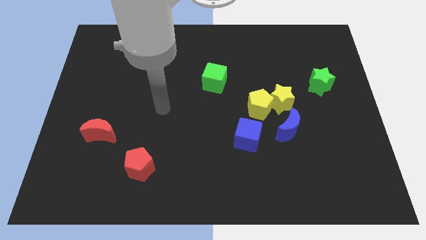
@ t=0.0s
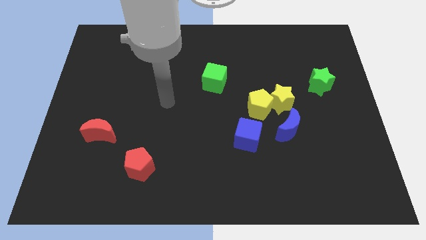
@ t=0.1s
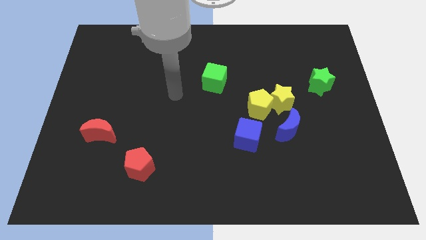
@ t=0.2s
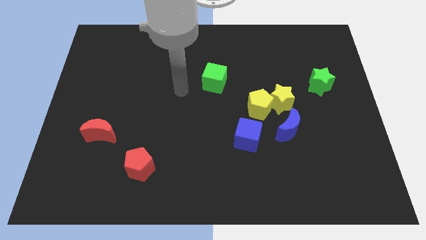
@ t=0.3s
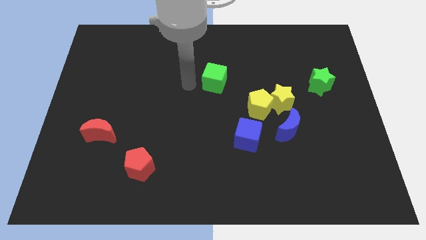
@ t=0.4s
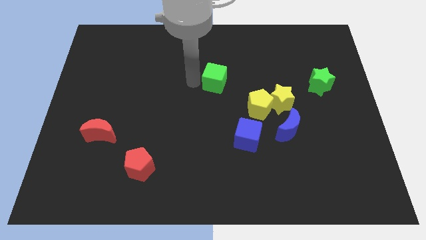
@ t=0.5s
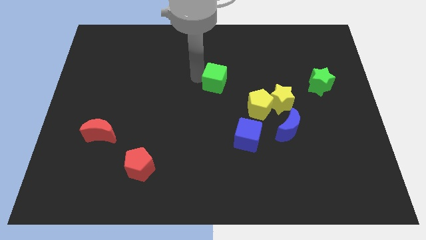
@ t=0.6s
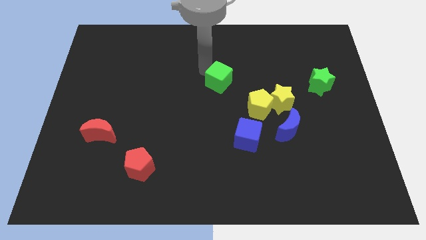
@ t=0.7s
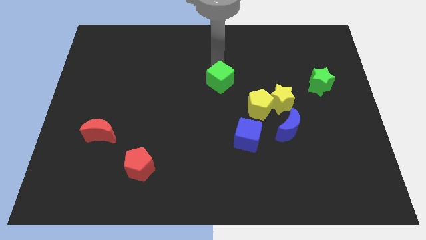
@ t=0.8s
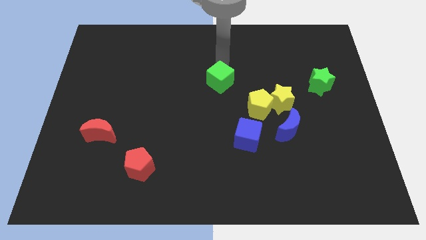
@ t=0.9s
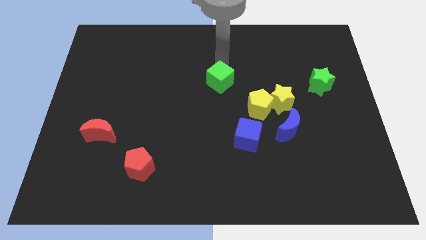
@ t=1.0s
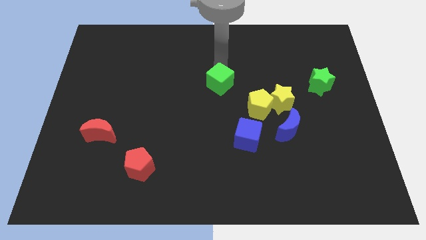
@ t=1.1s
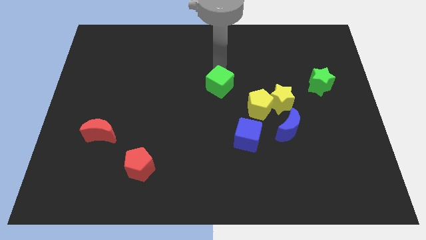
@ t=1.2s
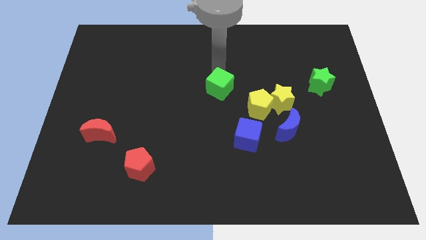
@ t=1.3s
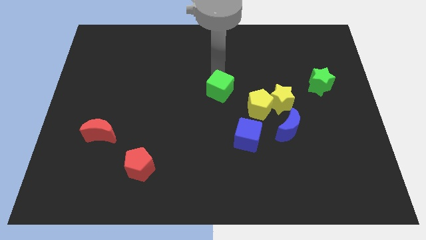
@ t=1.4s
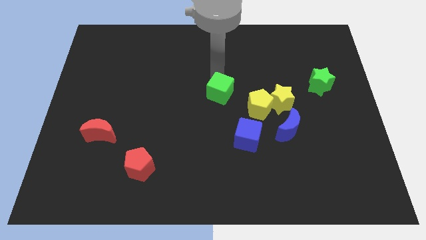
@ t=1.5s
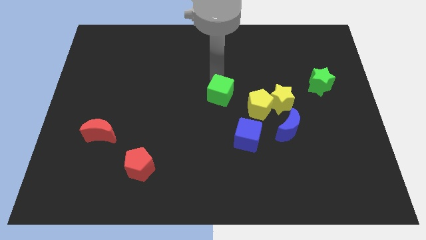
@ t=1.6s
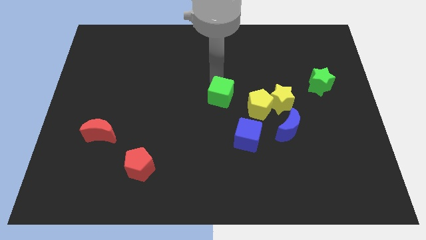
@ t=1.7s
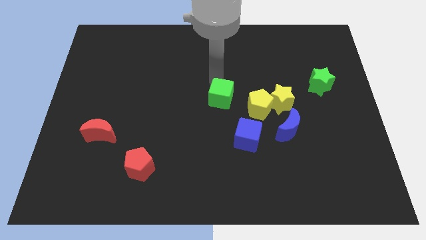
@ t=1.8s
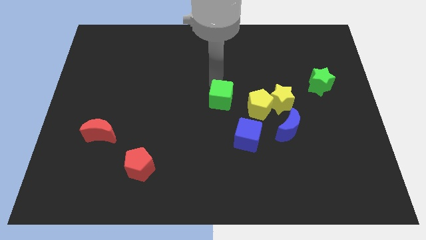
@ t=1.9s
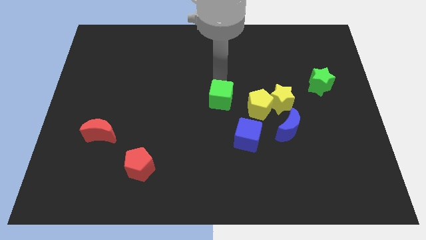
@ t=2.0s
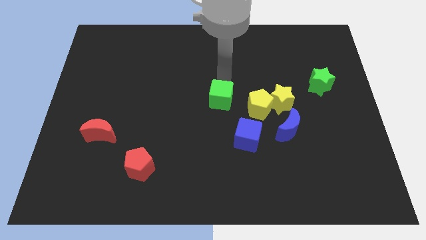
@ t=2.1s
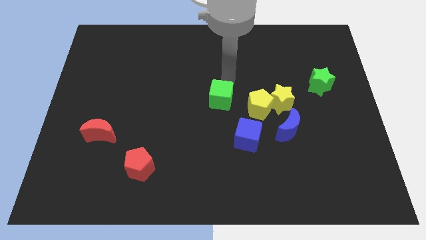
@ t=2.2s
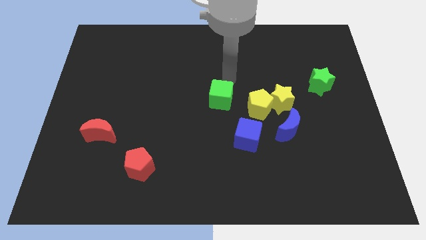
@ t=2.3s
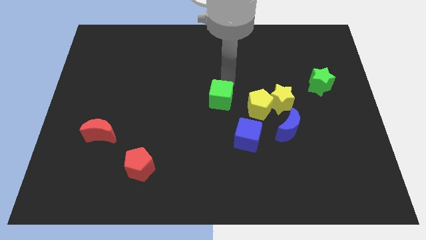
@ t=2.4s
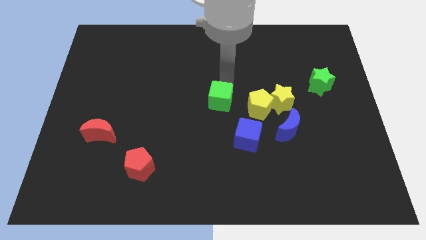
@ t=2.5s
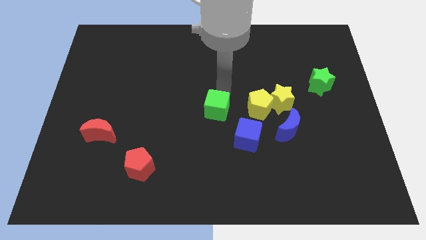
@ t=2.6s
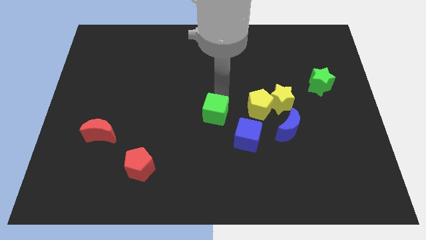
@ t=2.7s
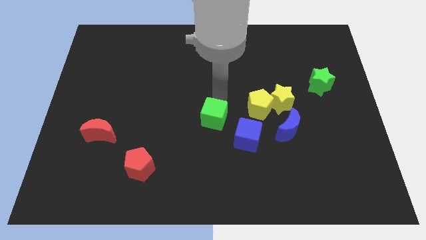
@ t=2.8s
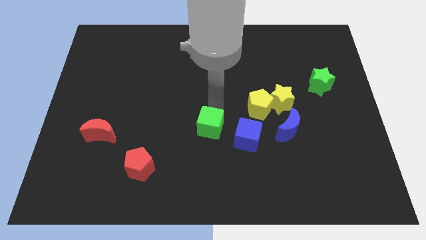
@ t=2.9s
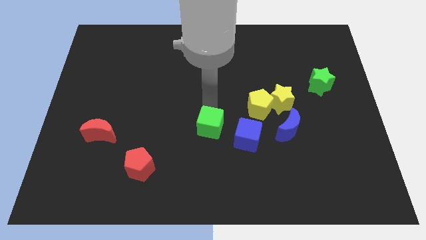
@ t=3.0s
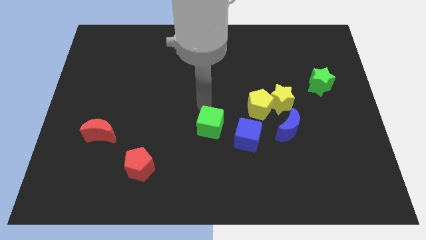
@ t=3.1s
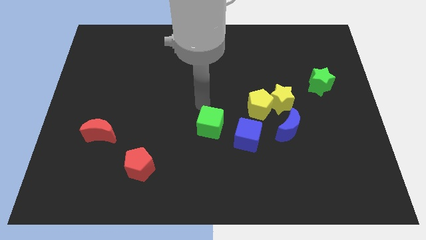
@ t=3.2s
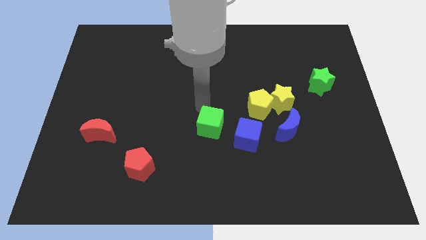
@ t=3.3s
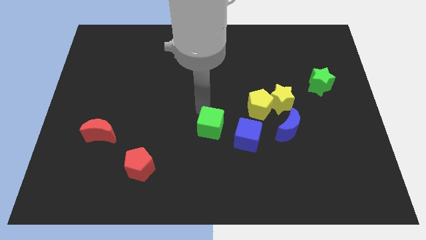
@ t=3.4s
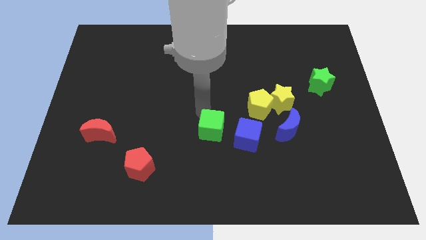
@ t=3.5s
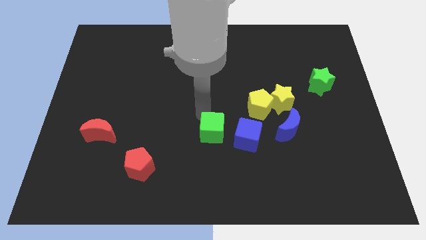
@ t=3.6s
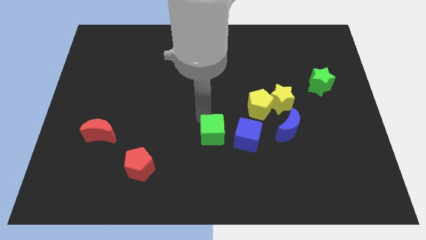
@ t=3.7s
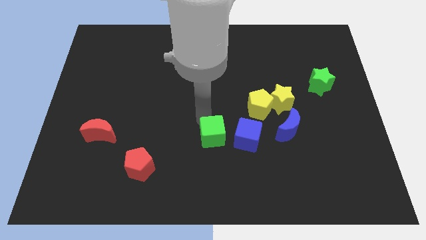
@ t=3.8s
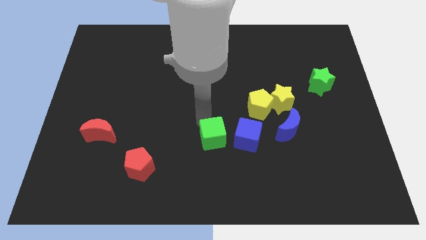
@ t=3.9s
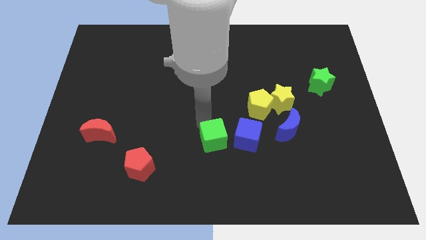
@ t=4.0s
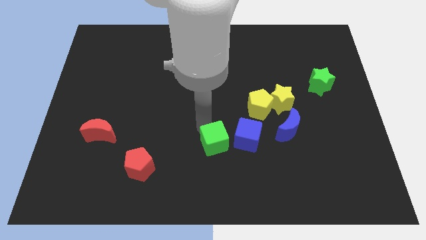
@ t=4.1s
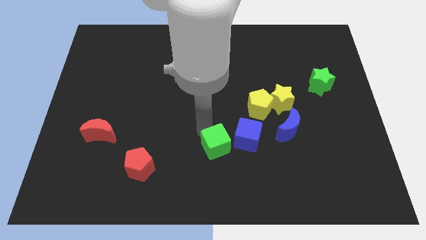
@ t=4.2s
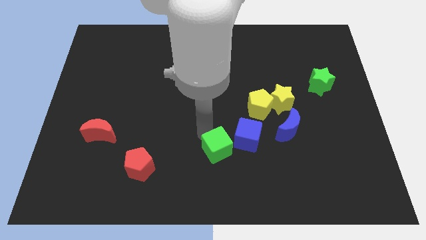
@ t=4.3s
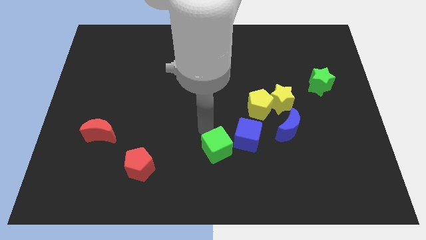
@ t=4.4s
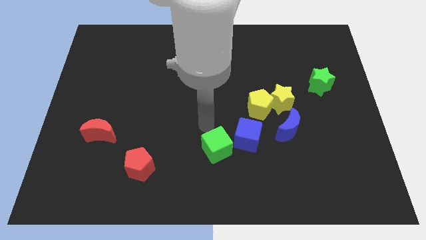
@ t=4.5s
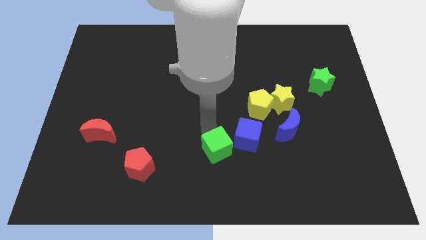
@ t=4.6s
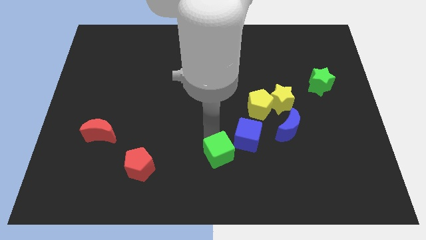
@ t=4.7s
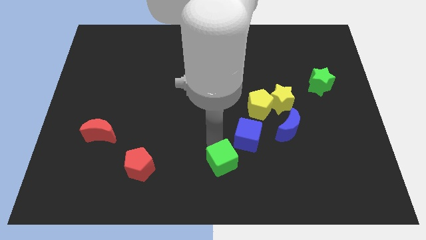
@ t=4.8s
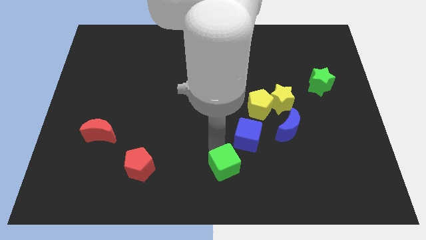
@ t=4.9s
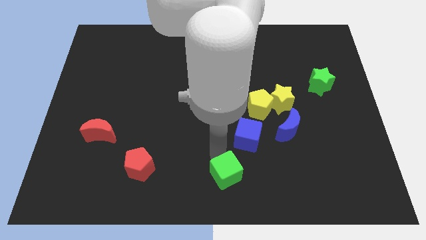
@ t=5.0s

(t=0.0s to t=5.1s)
move the green cube to the bottom side of the blue cube

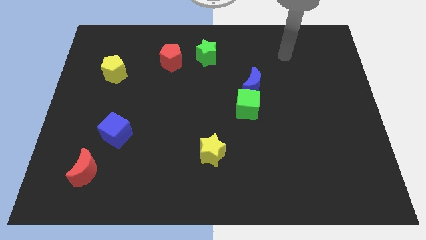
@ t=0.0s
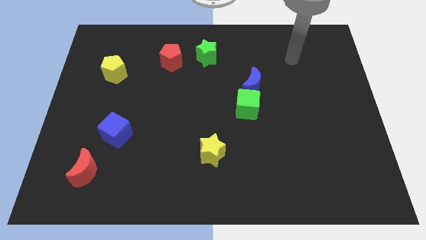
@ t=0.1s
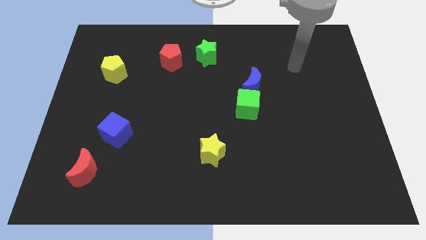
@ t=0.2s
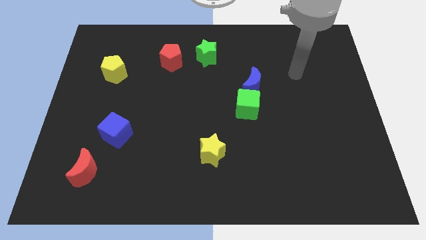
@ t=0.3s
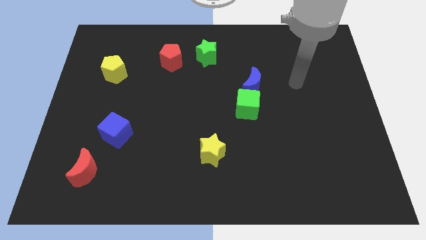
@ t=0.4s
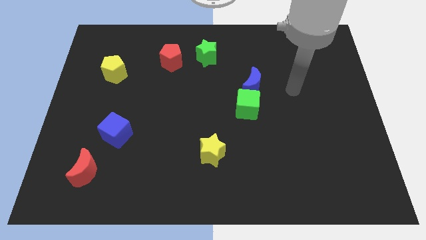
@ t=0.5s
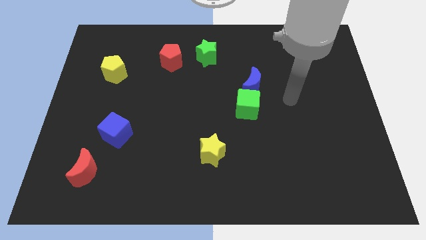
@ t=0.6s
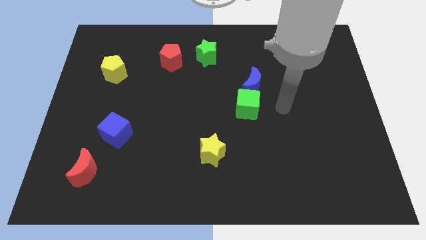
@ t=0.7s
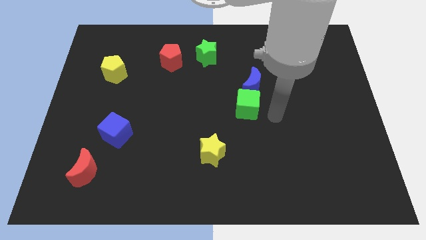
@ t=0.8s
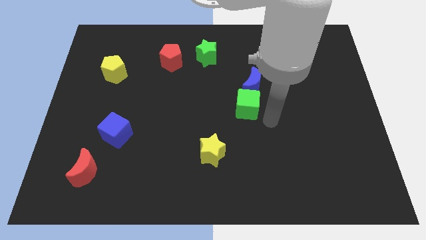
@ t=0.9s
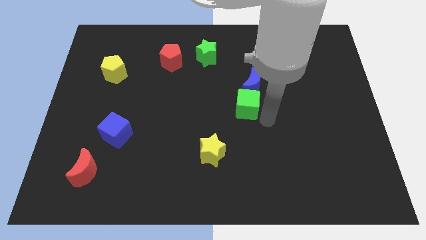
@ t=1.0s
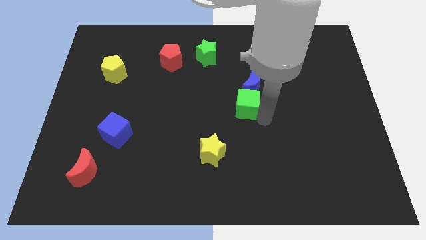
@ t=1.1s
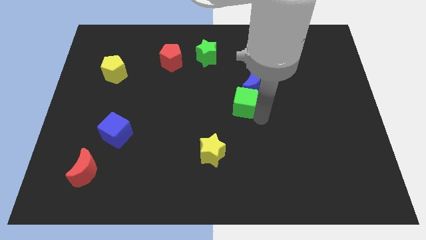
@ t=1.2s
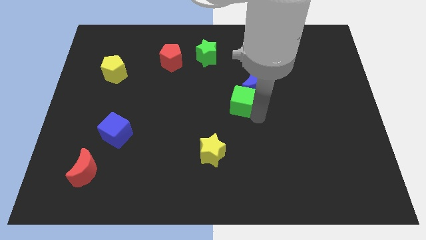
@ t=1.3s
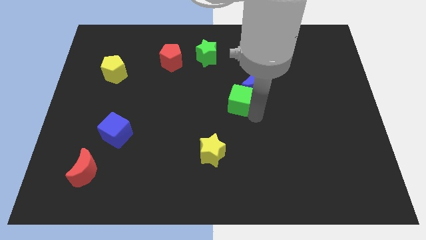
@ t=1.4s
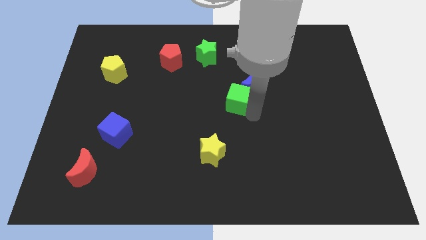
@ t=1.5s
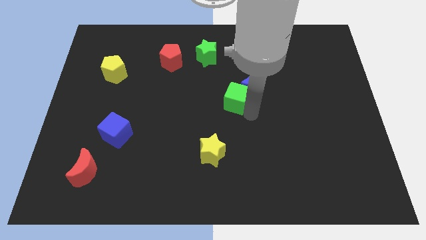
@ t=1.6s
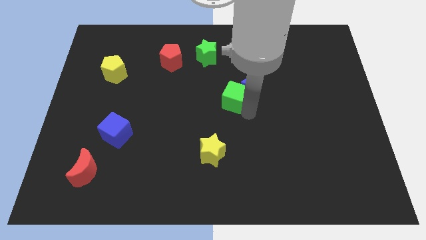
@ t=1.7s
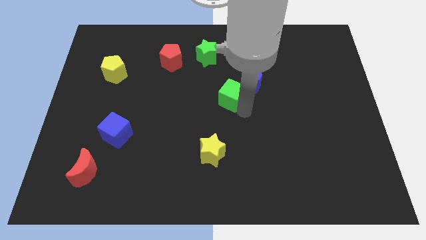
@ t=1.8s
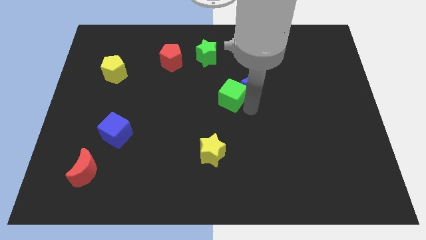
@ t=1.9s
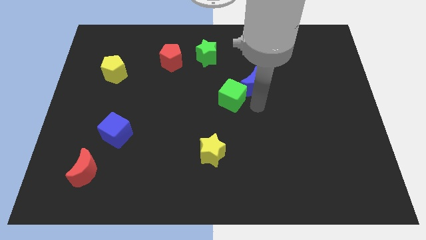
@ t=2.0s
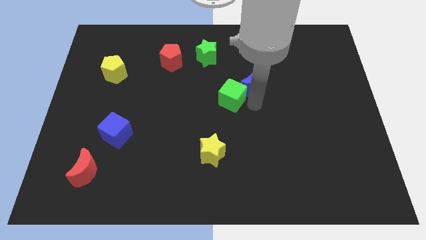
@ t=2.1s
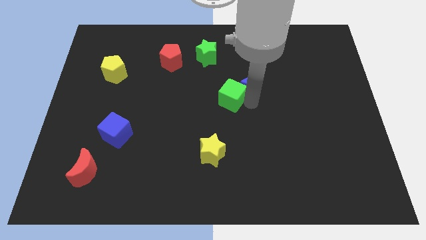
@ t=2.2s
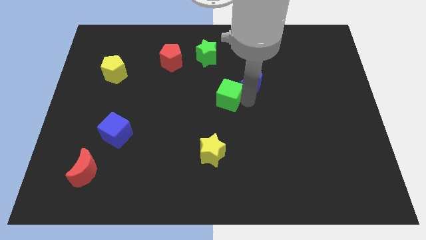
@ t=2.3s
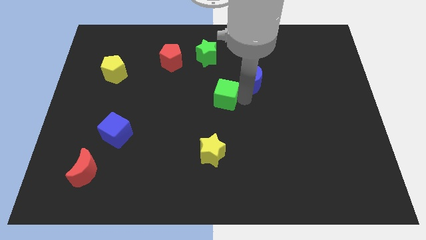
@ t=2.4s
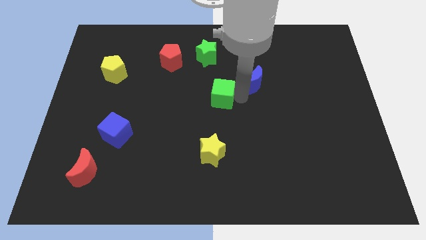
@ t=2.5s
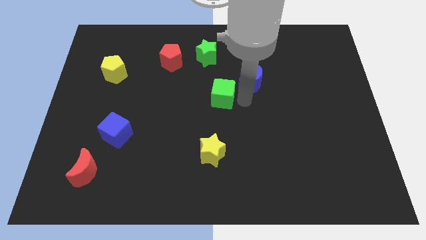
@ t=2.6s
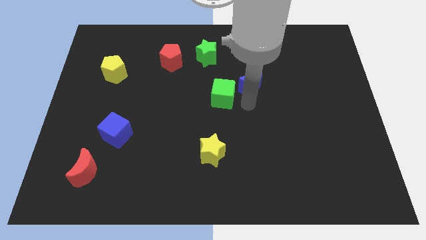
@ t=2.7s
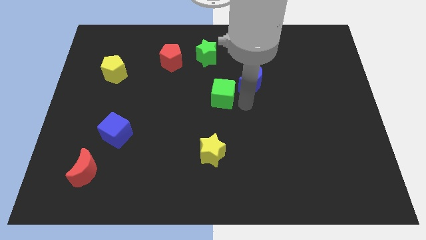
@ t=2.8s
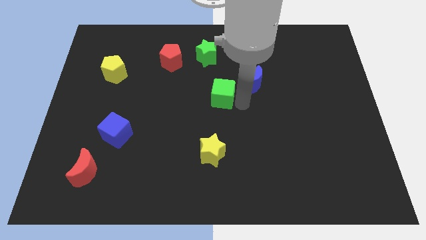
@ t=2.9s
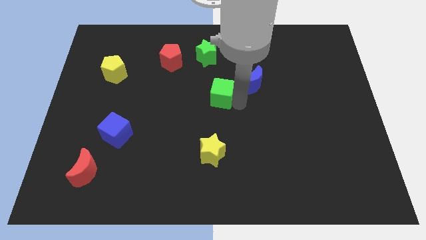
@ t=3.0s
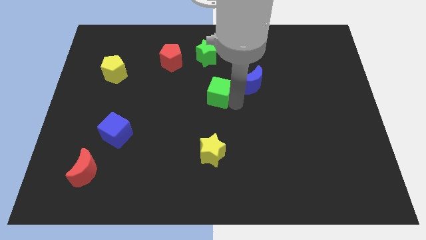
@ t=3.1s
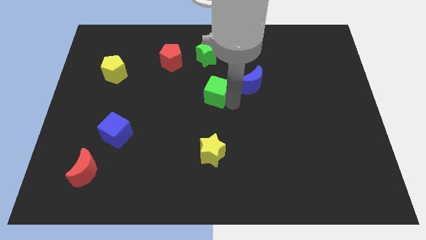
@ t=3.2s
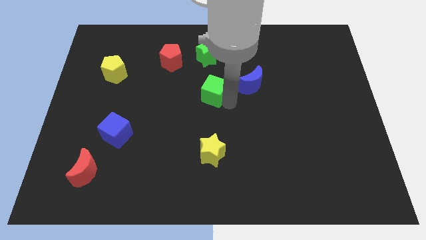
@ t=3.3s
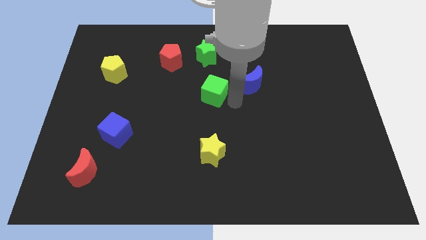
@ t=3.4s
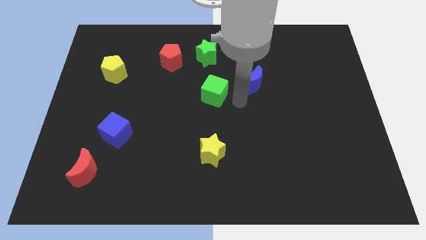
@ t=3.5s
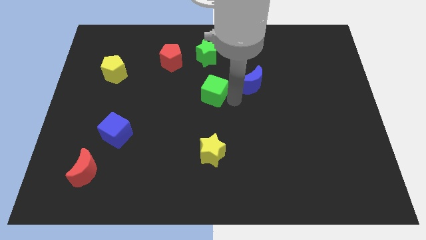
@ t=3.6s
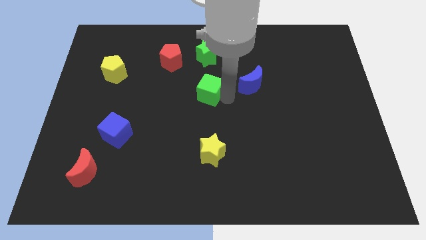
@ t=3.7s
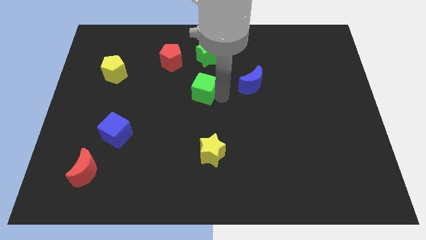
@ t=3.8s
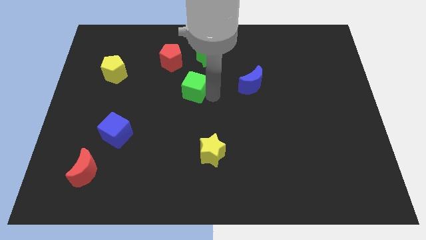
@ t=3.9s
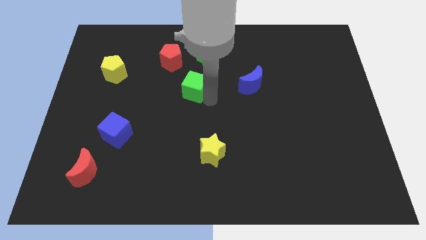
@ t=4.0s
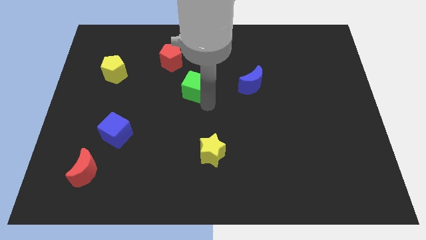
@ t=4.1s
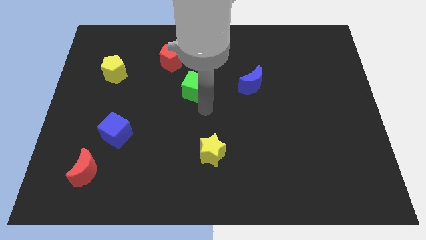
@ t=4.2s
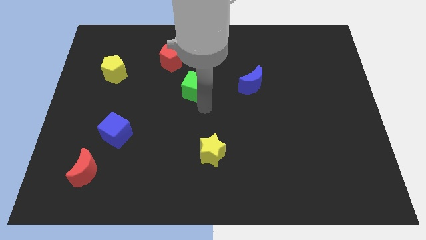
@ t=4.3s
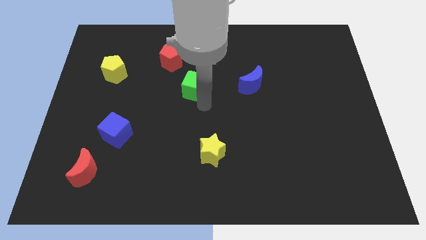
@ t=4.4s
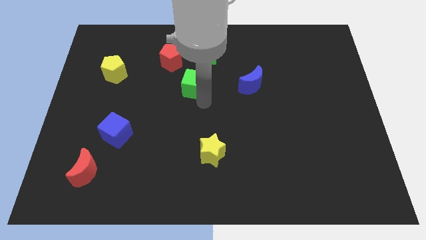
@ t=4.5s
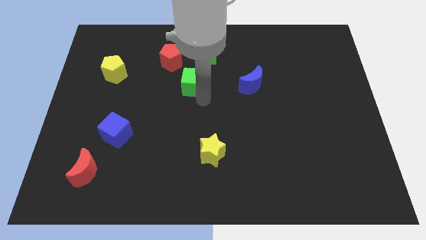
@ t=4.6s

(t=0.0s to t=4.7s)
slide the green cube diagonally down and to the left of the green star
